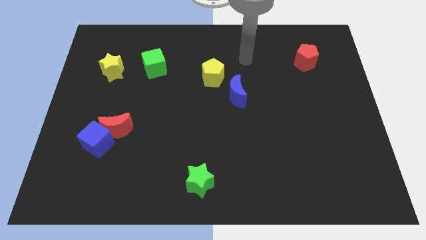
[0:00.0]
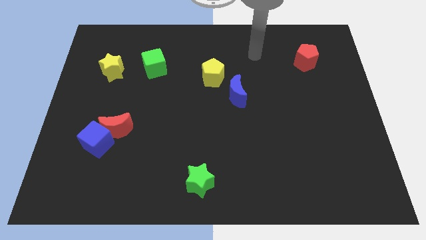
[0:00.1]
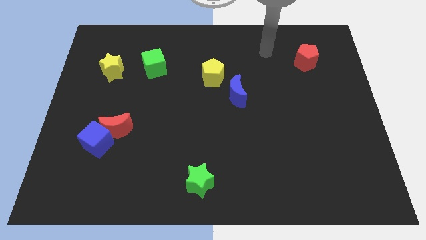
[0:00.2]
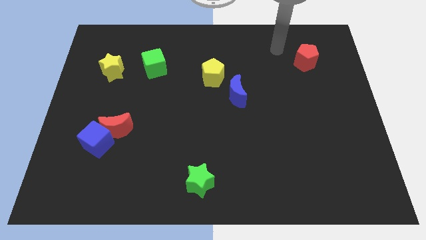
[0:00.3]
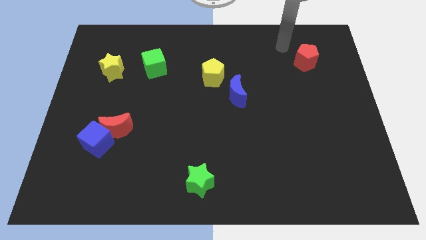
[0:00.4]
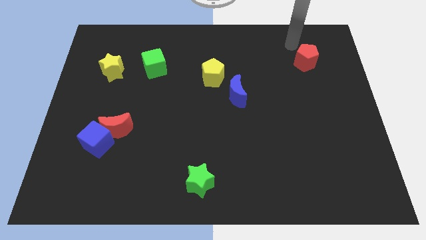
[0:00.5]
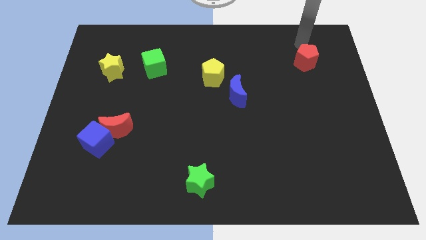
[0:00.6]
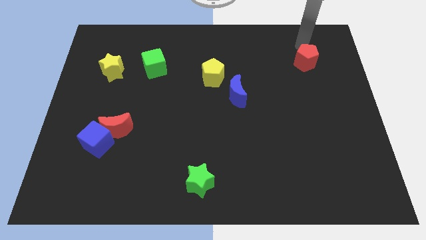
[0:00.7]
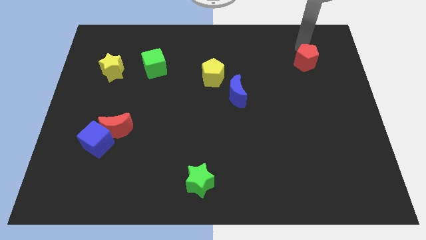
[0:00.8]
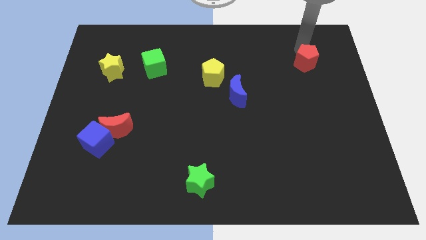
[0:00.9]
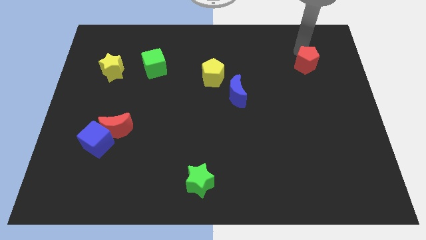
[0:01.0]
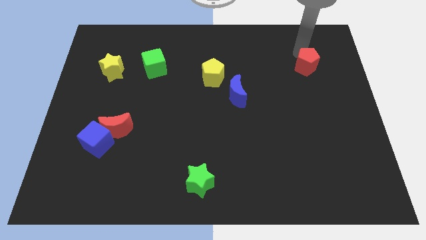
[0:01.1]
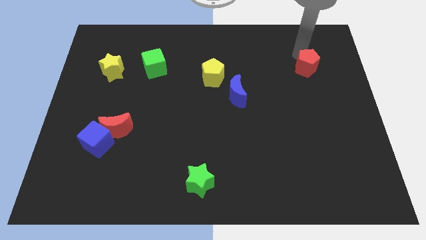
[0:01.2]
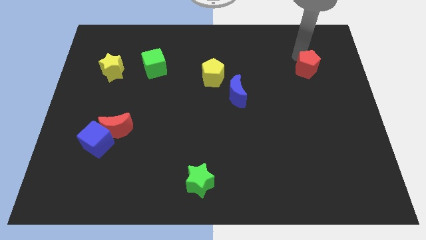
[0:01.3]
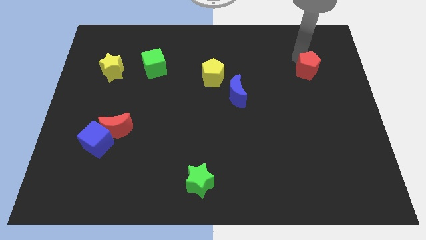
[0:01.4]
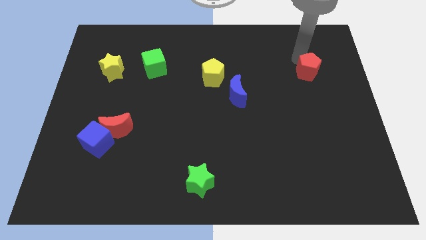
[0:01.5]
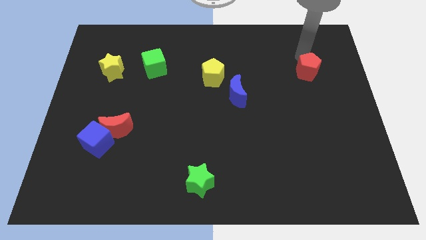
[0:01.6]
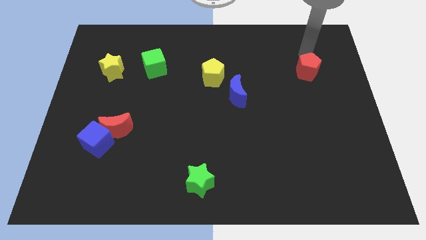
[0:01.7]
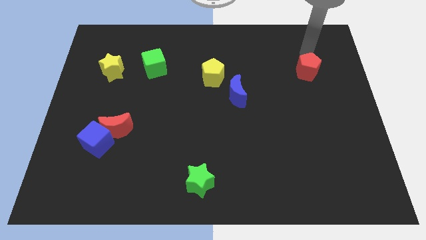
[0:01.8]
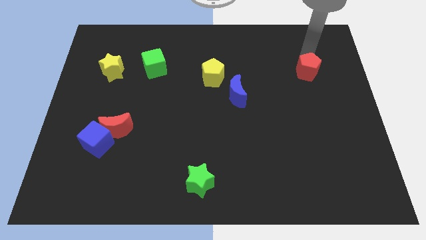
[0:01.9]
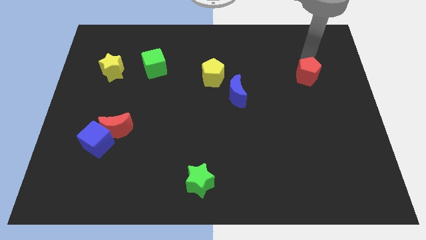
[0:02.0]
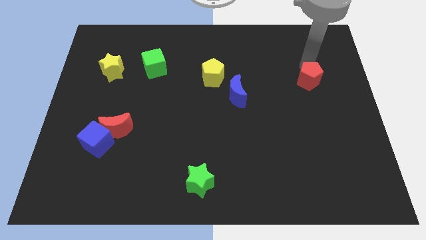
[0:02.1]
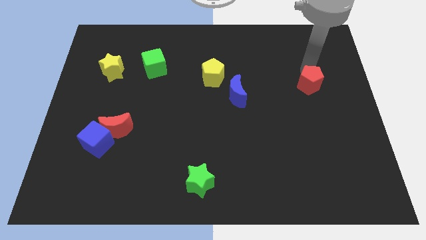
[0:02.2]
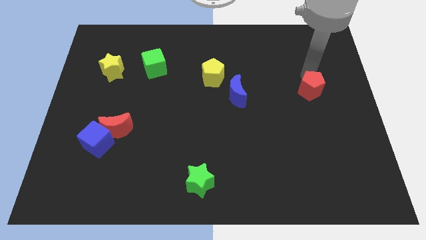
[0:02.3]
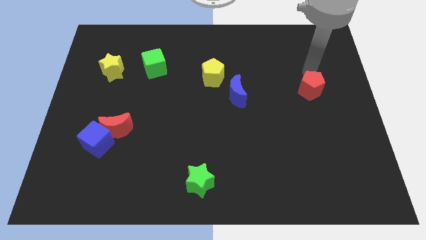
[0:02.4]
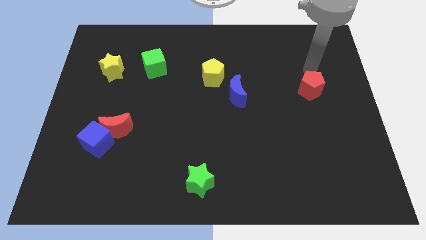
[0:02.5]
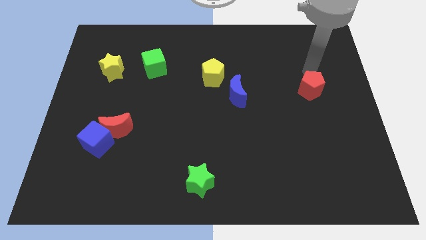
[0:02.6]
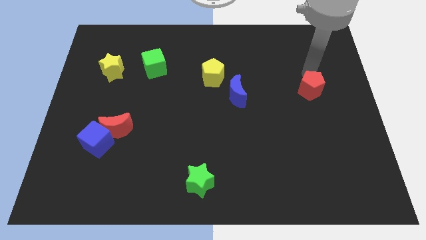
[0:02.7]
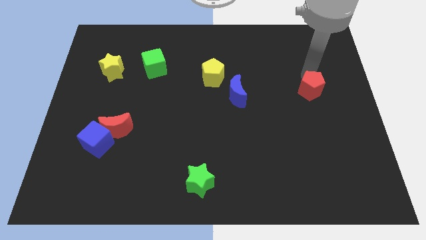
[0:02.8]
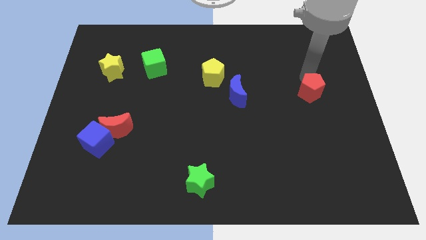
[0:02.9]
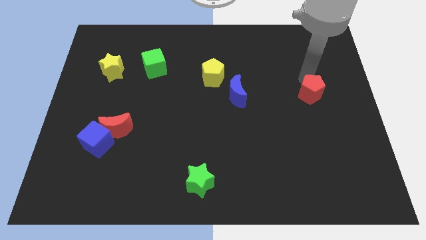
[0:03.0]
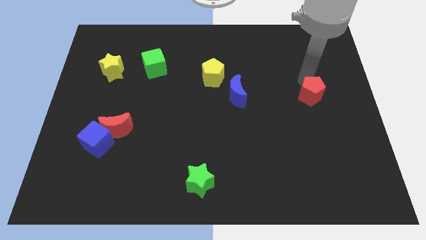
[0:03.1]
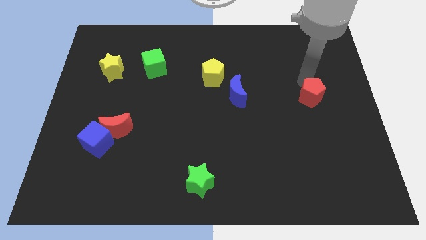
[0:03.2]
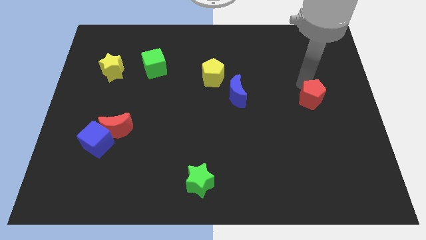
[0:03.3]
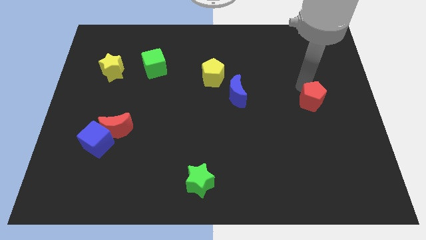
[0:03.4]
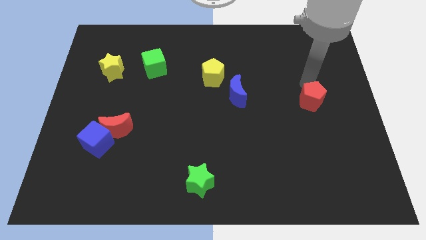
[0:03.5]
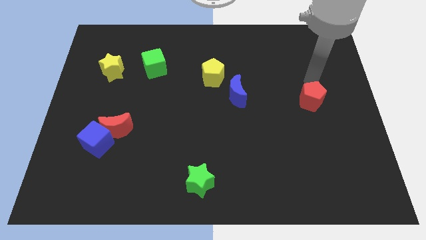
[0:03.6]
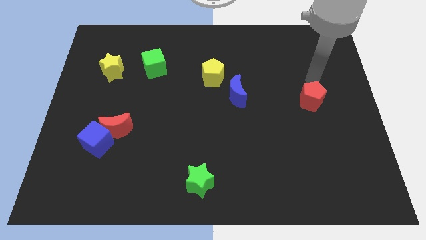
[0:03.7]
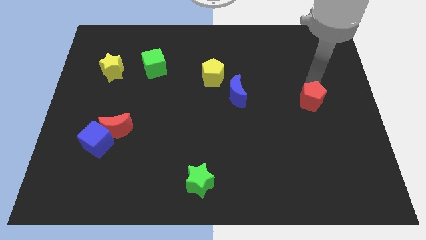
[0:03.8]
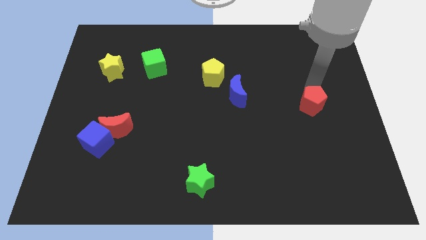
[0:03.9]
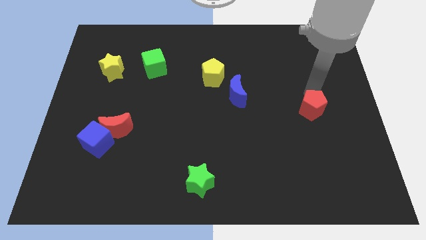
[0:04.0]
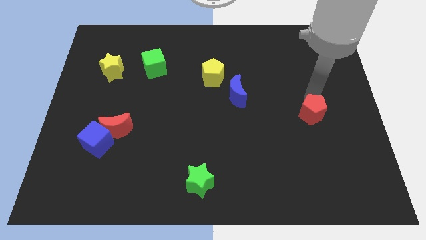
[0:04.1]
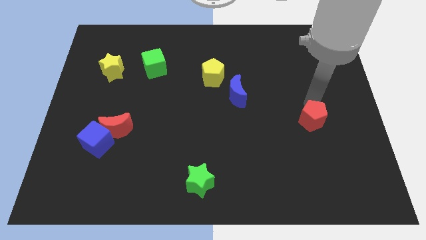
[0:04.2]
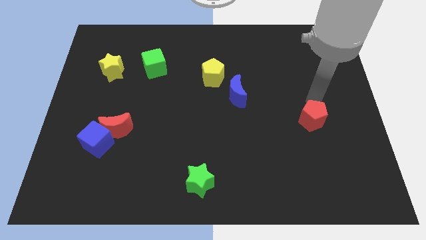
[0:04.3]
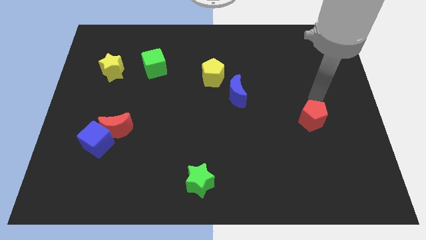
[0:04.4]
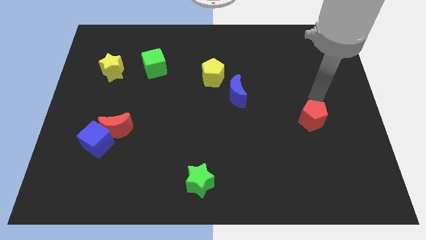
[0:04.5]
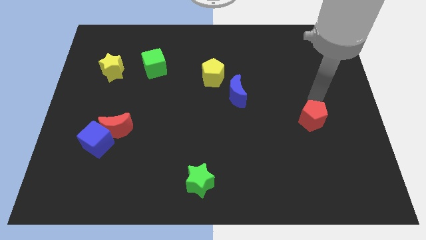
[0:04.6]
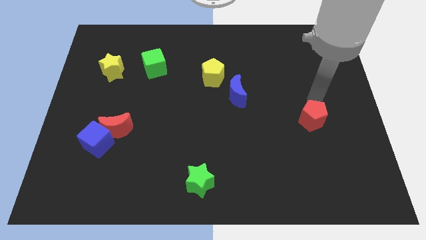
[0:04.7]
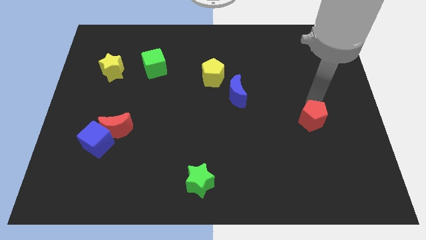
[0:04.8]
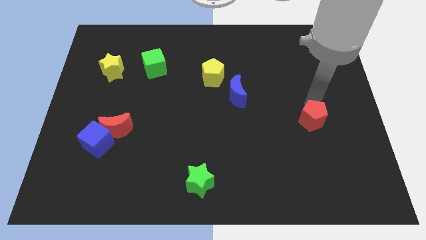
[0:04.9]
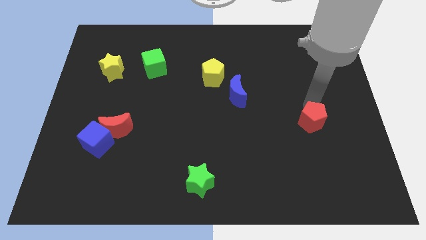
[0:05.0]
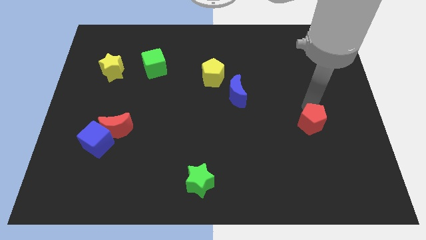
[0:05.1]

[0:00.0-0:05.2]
slide the red pentagon downwards

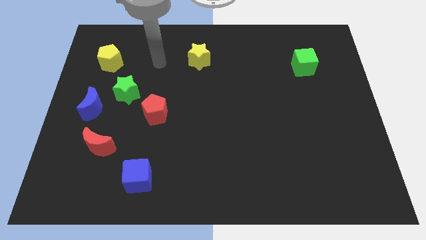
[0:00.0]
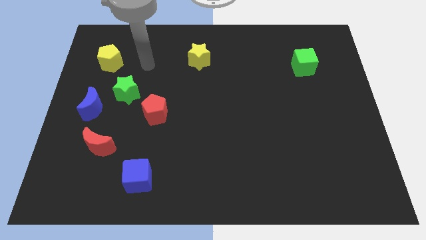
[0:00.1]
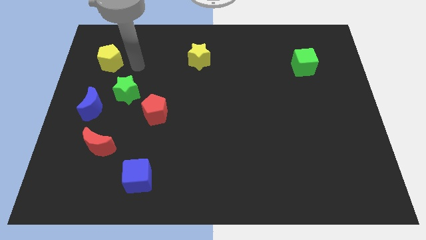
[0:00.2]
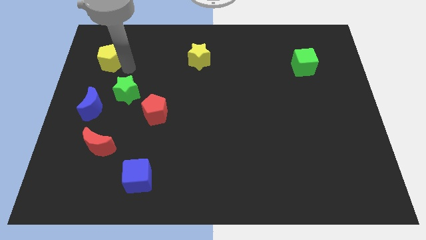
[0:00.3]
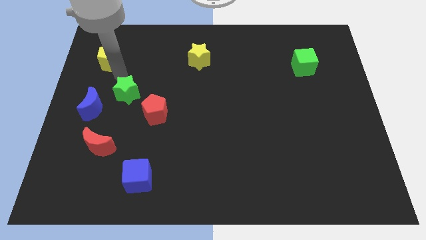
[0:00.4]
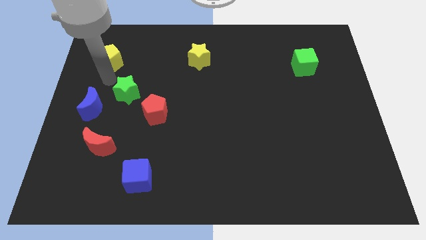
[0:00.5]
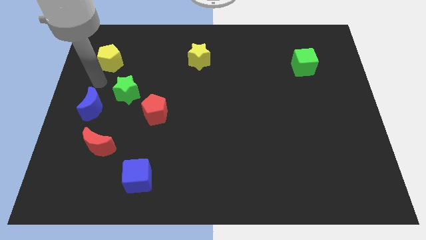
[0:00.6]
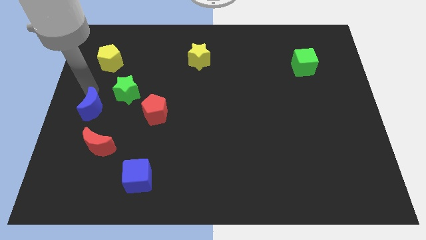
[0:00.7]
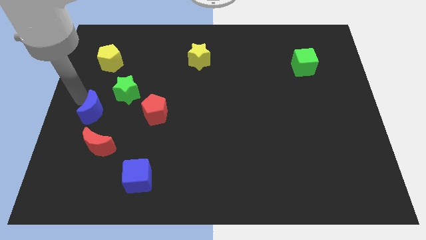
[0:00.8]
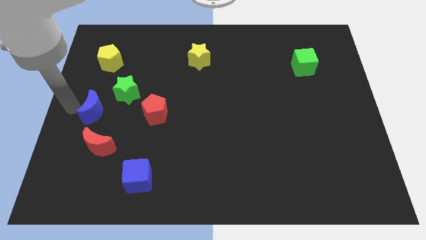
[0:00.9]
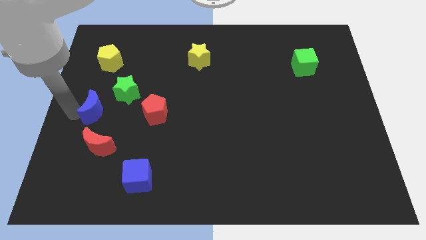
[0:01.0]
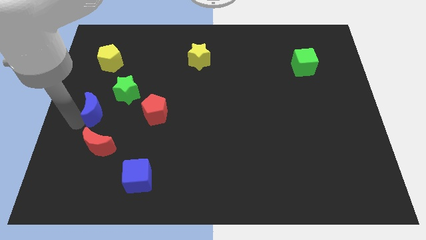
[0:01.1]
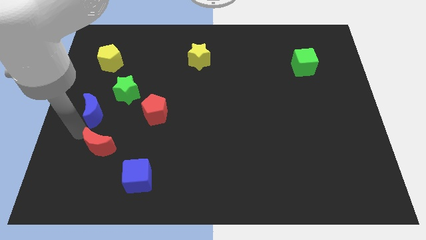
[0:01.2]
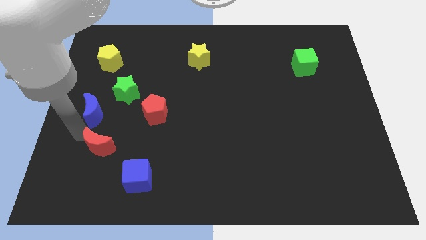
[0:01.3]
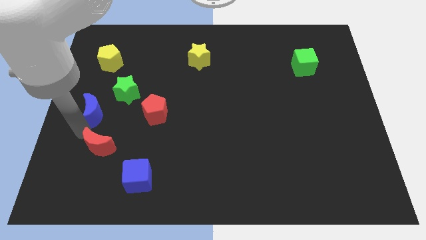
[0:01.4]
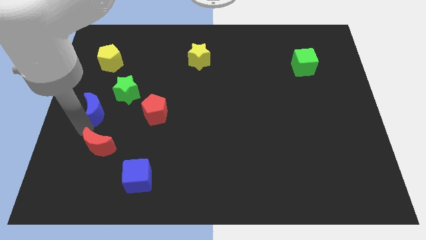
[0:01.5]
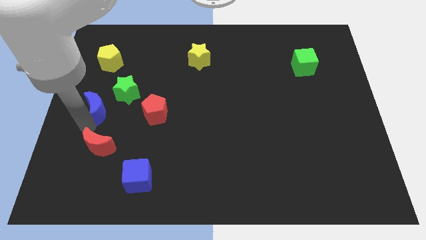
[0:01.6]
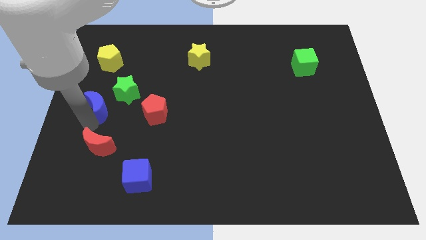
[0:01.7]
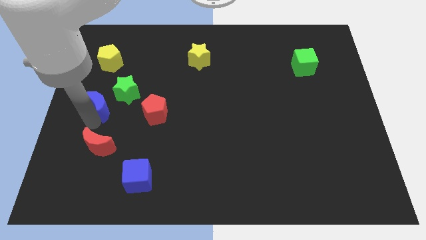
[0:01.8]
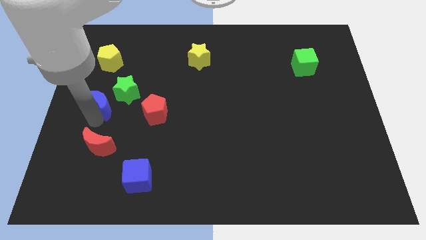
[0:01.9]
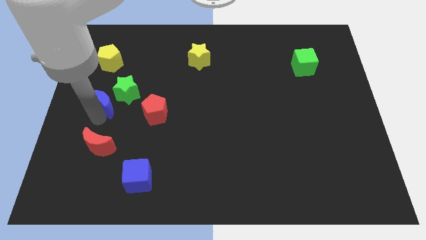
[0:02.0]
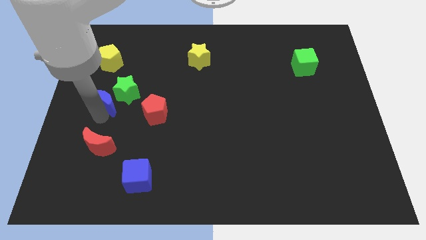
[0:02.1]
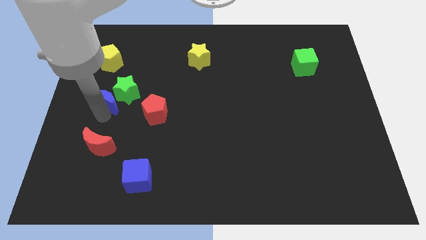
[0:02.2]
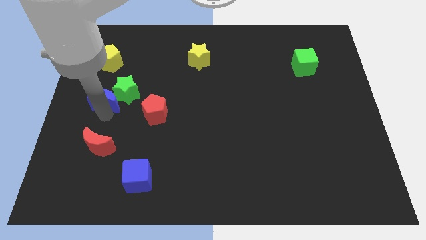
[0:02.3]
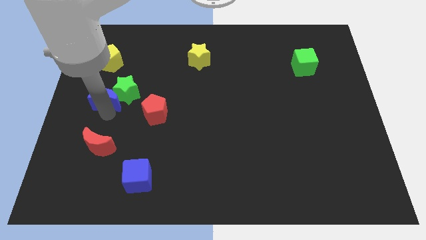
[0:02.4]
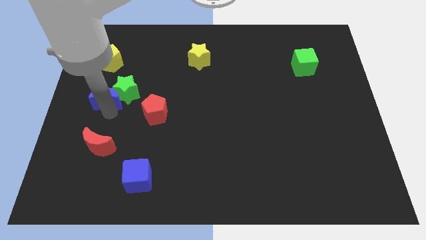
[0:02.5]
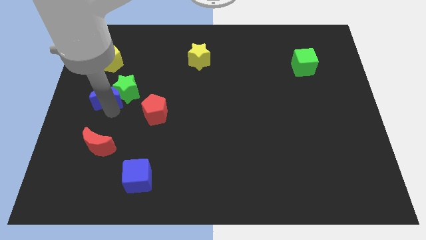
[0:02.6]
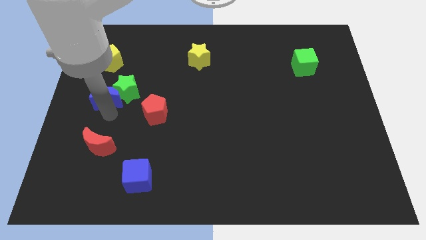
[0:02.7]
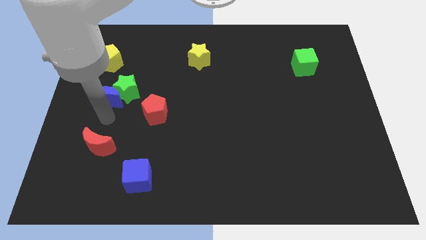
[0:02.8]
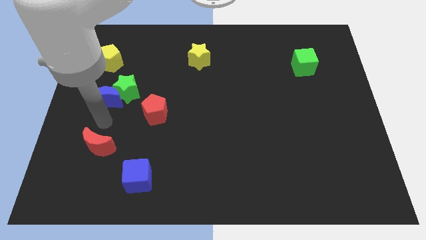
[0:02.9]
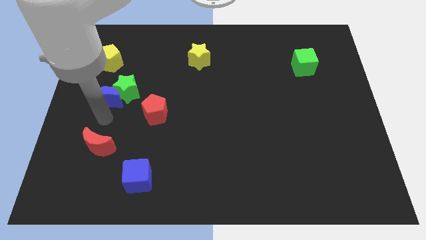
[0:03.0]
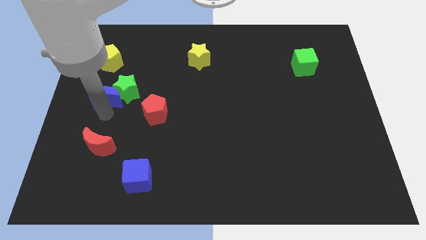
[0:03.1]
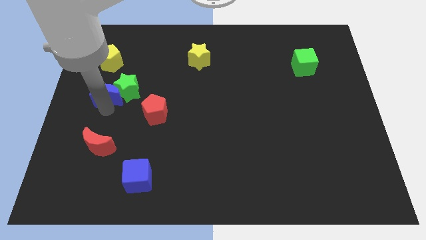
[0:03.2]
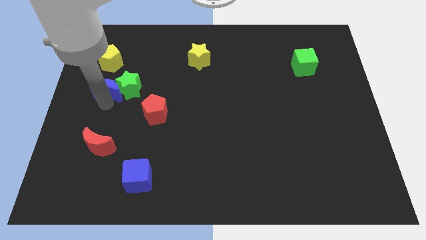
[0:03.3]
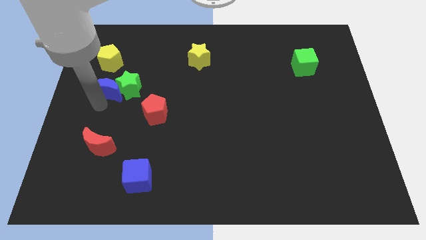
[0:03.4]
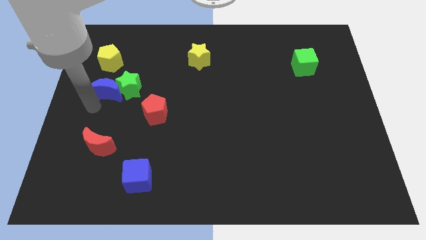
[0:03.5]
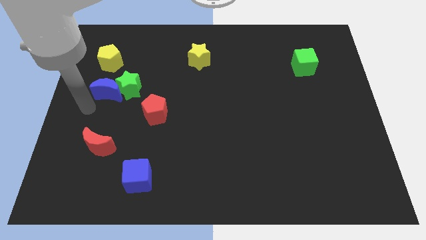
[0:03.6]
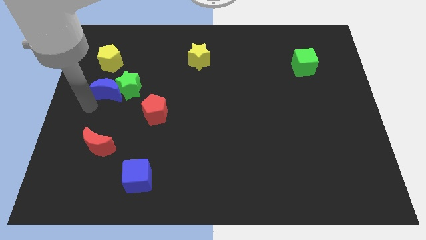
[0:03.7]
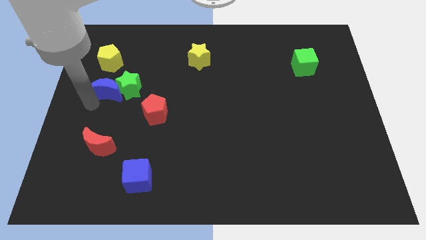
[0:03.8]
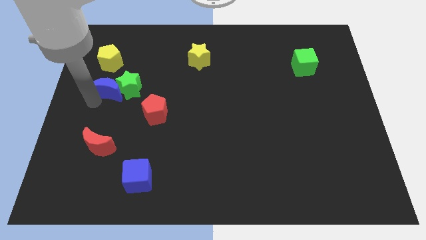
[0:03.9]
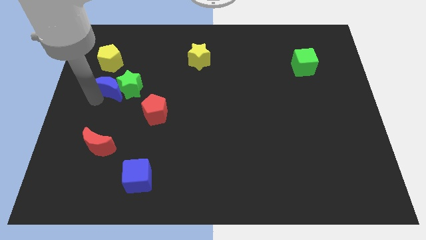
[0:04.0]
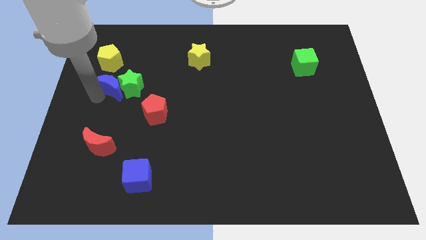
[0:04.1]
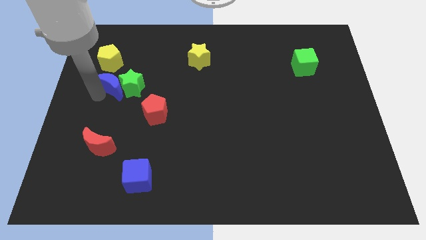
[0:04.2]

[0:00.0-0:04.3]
slightly push the blue moon upwards and then right
